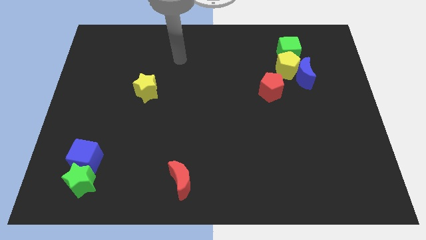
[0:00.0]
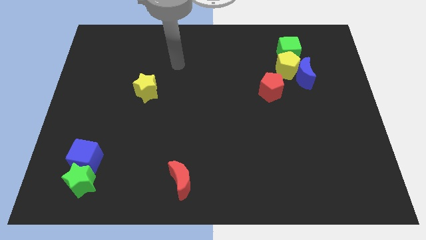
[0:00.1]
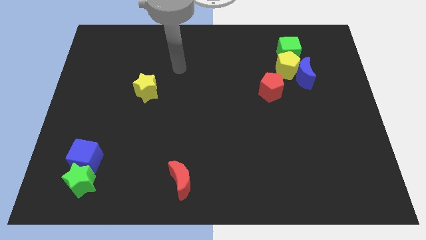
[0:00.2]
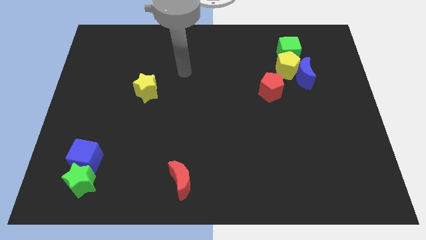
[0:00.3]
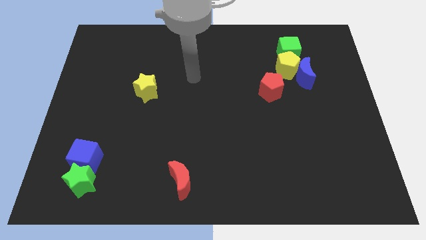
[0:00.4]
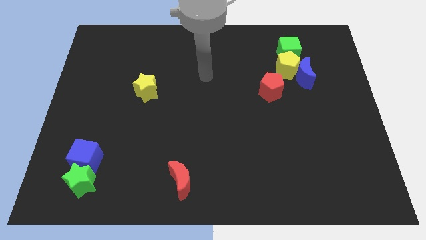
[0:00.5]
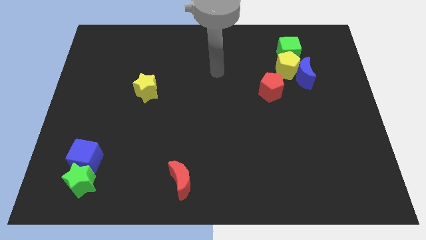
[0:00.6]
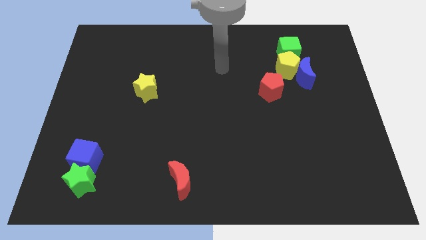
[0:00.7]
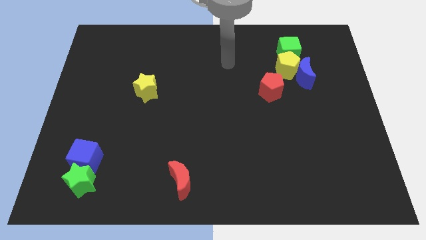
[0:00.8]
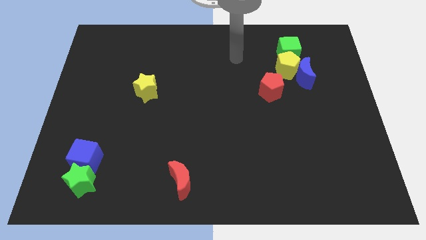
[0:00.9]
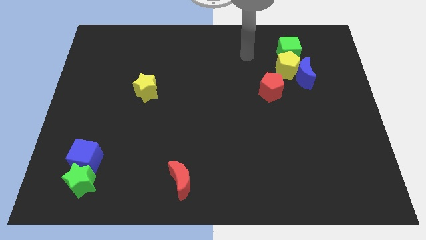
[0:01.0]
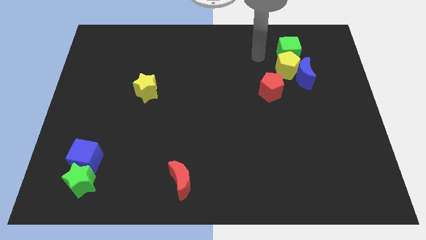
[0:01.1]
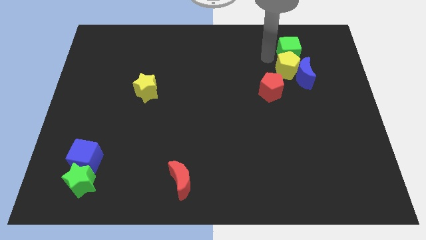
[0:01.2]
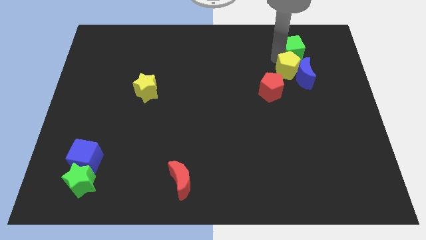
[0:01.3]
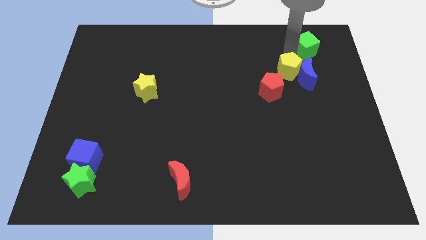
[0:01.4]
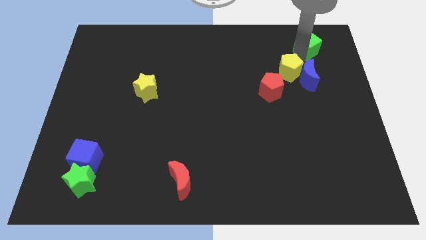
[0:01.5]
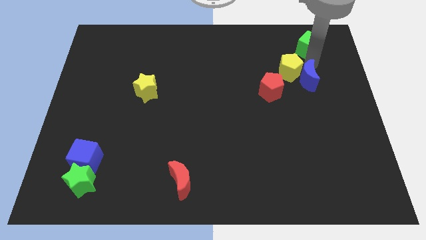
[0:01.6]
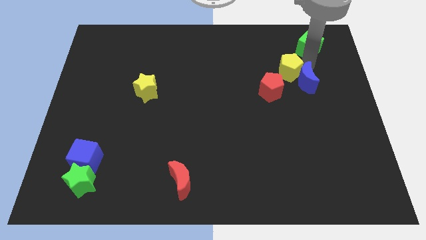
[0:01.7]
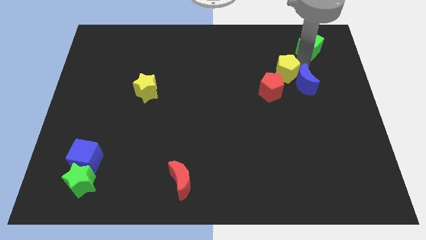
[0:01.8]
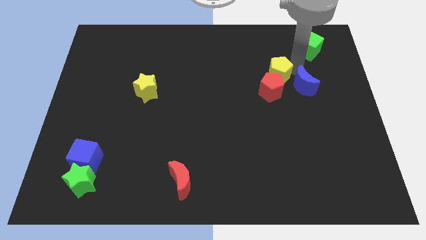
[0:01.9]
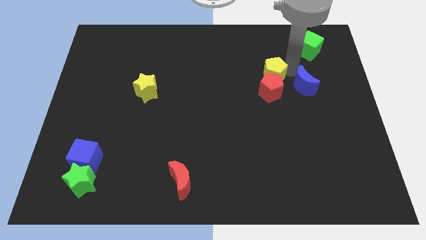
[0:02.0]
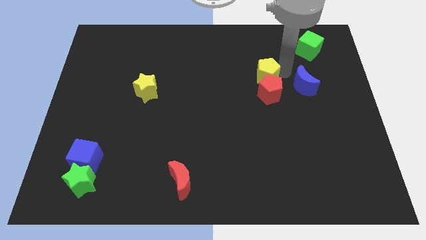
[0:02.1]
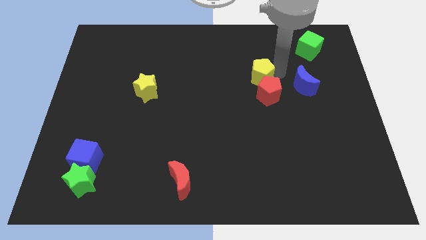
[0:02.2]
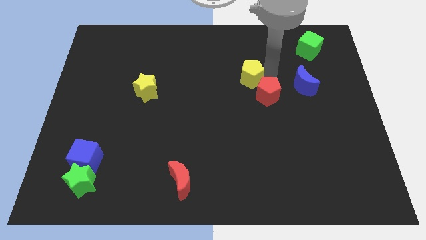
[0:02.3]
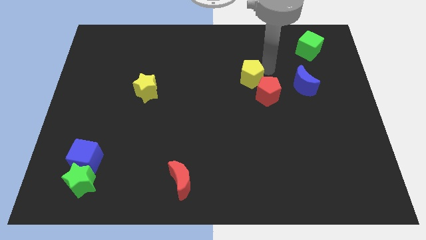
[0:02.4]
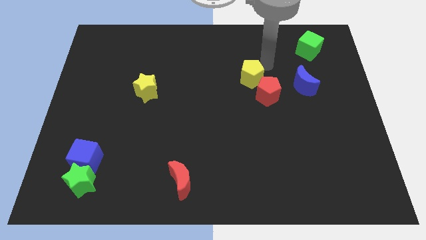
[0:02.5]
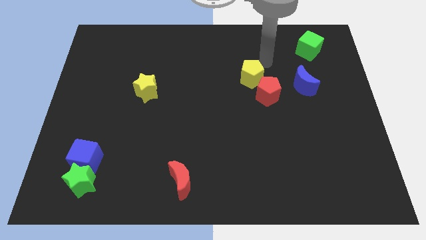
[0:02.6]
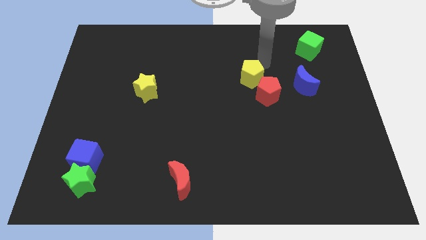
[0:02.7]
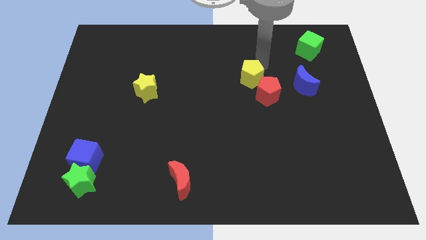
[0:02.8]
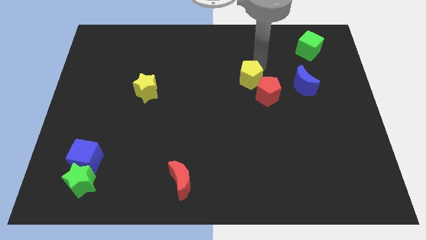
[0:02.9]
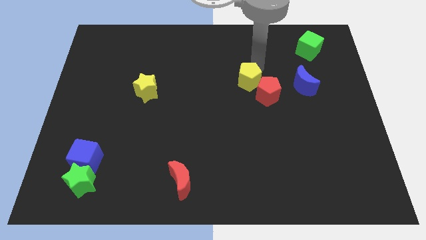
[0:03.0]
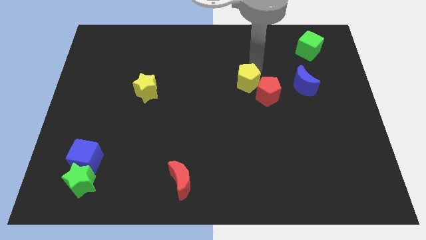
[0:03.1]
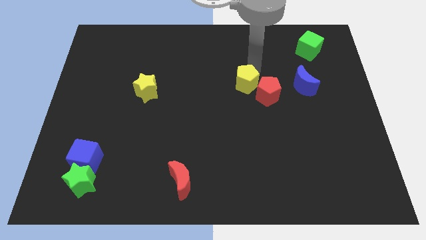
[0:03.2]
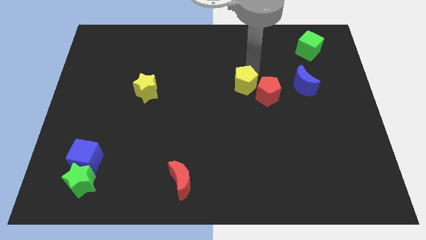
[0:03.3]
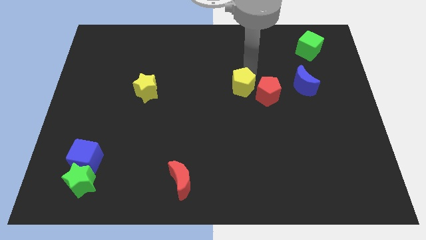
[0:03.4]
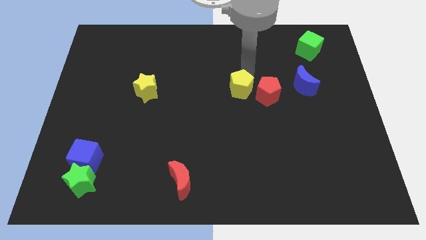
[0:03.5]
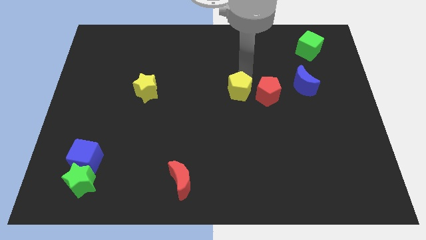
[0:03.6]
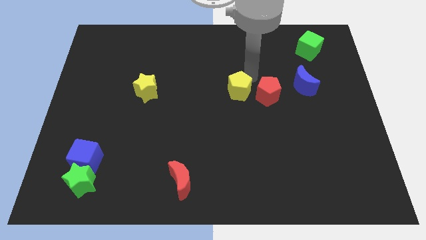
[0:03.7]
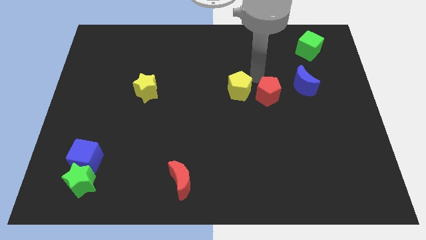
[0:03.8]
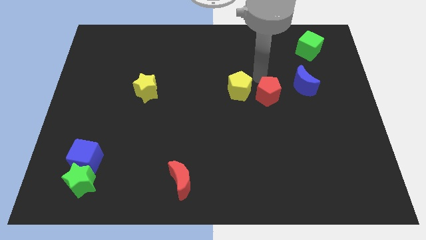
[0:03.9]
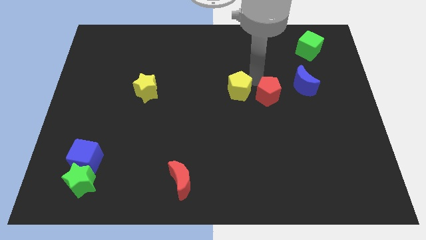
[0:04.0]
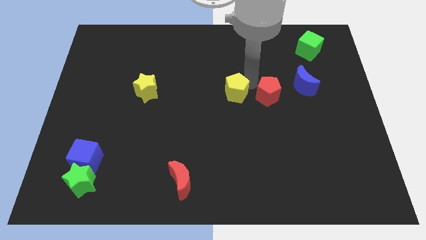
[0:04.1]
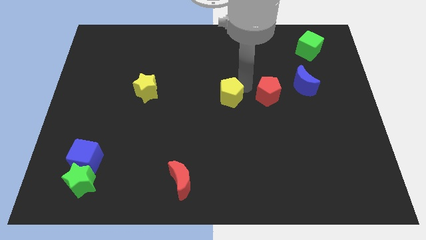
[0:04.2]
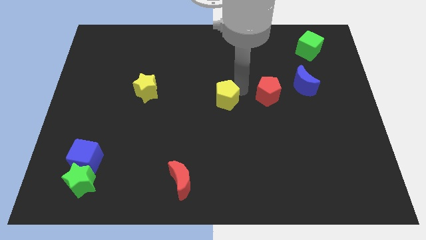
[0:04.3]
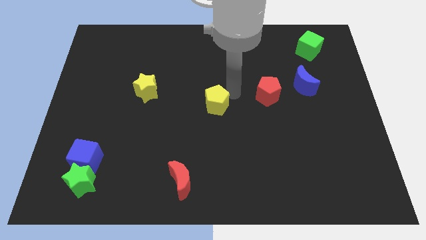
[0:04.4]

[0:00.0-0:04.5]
push the yellow pentagon downwards and to the left

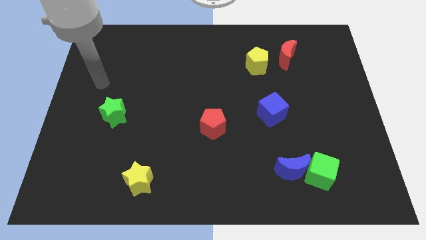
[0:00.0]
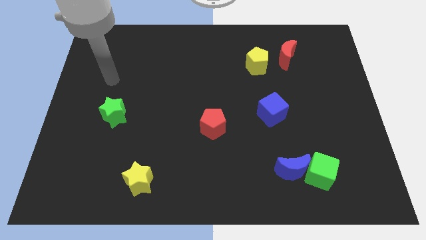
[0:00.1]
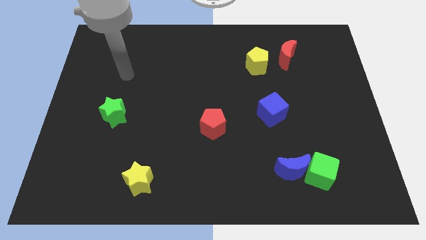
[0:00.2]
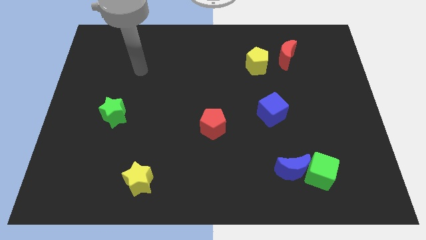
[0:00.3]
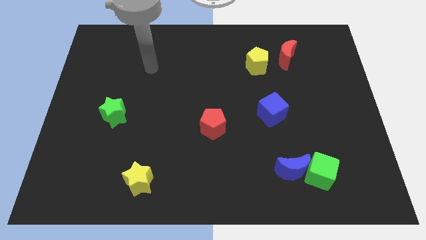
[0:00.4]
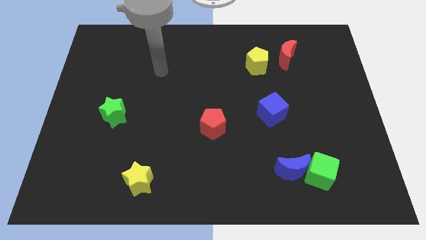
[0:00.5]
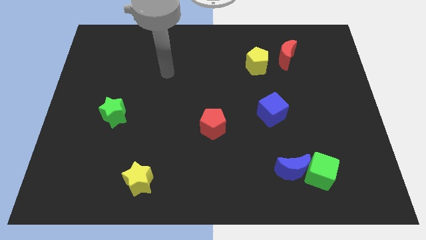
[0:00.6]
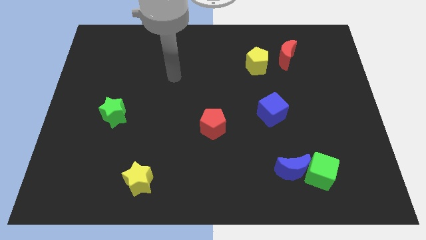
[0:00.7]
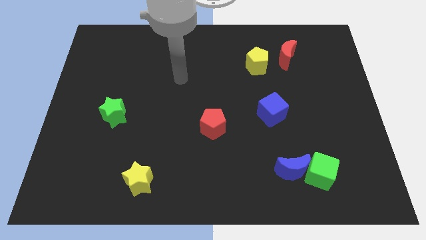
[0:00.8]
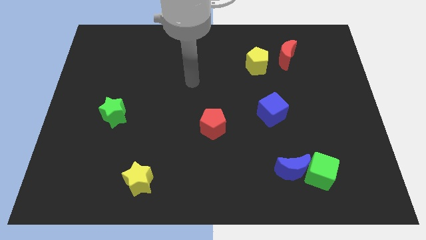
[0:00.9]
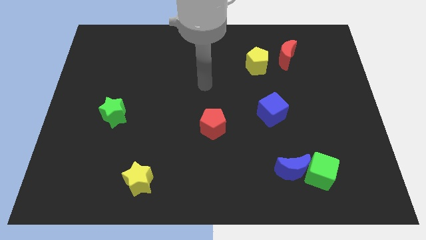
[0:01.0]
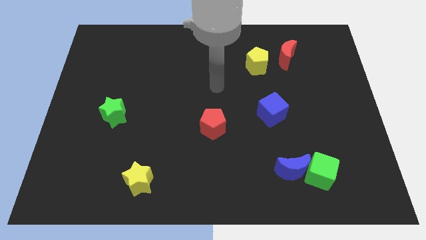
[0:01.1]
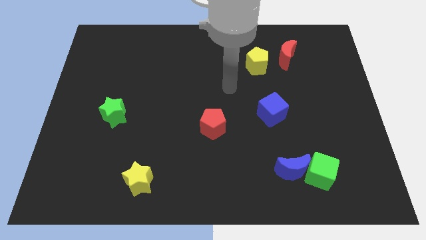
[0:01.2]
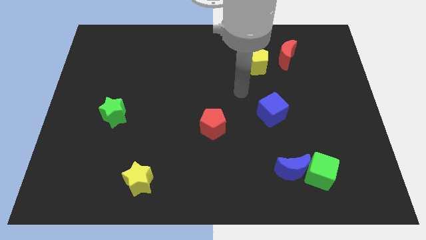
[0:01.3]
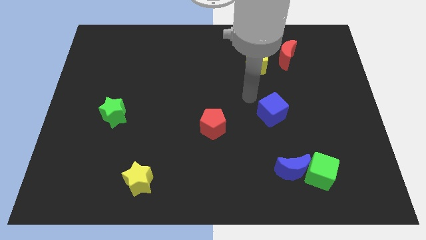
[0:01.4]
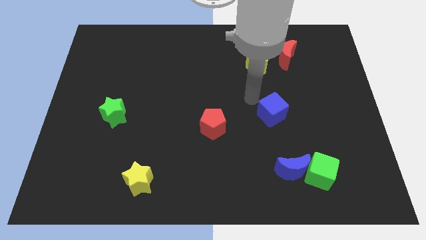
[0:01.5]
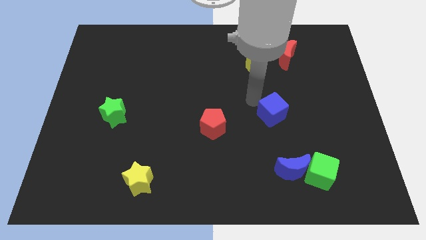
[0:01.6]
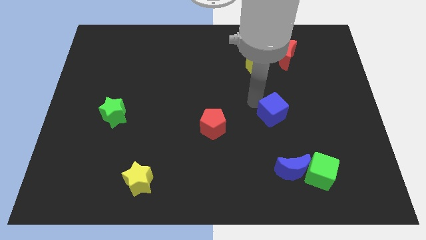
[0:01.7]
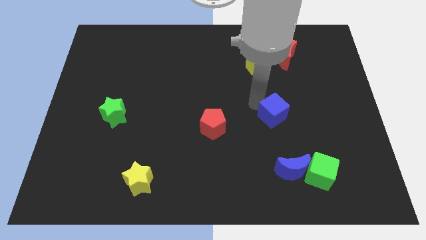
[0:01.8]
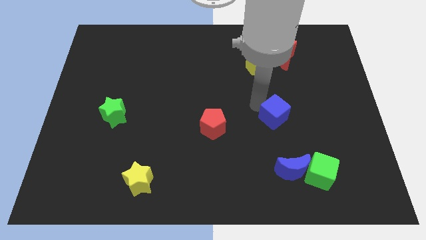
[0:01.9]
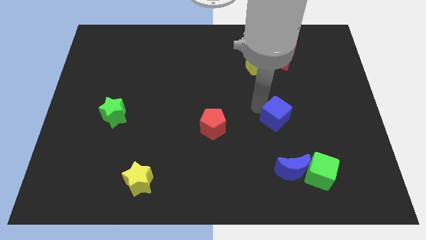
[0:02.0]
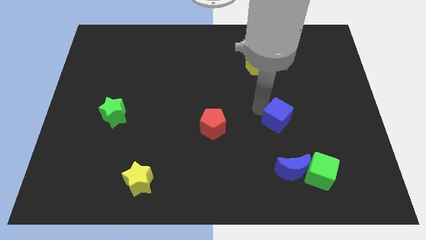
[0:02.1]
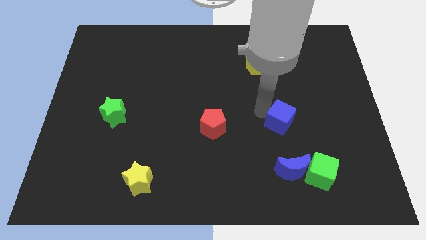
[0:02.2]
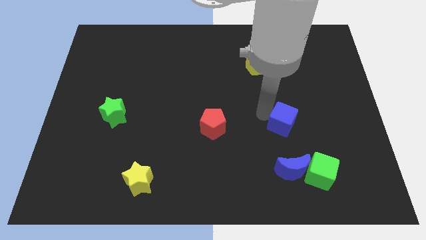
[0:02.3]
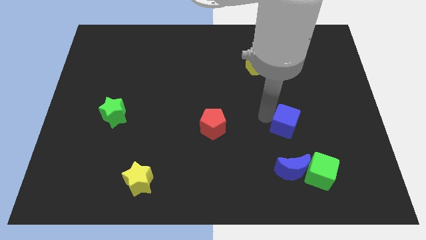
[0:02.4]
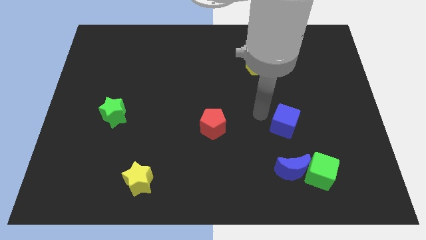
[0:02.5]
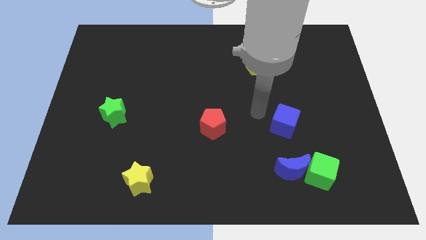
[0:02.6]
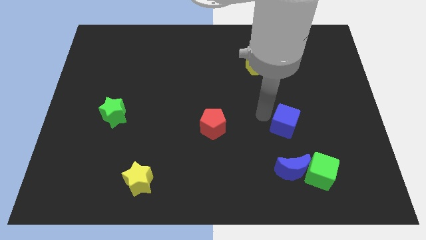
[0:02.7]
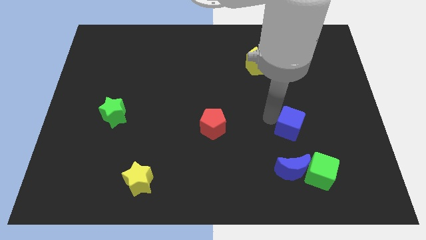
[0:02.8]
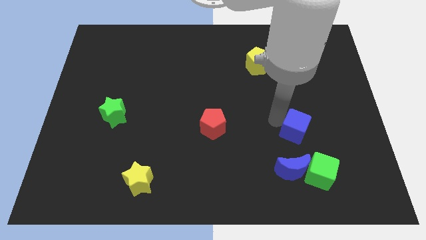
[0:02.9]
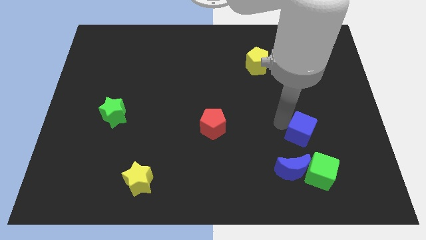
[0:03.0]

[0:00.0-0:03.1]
push the blue cube somewhat downwards and then right

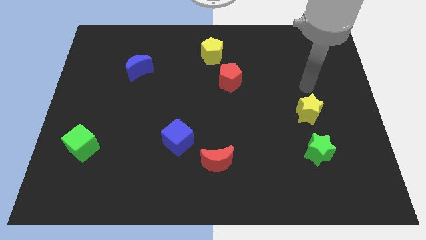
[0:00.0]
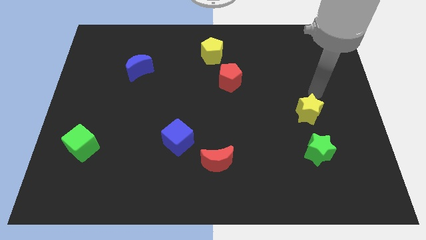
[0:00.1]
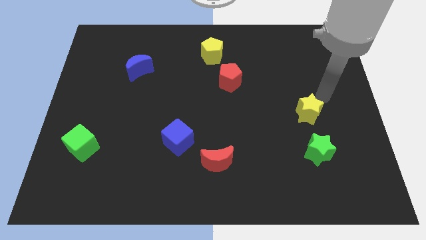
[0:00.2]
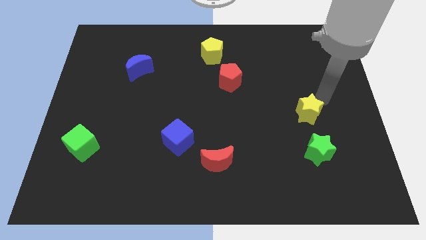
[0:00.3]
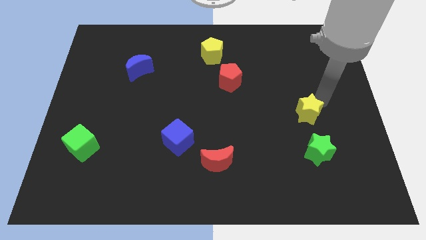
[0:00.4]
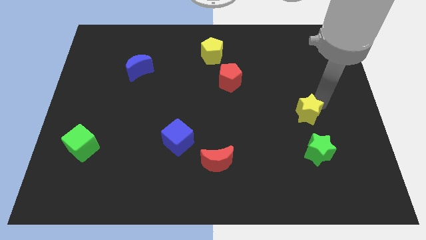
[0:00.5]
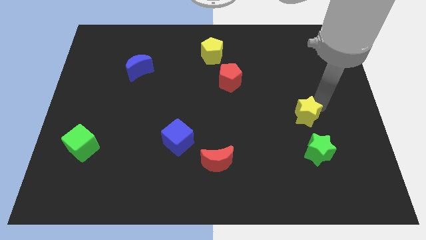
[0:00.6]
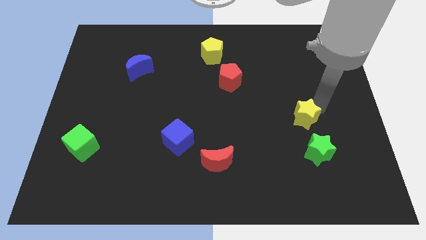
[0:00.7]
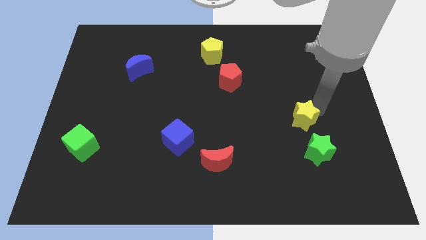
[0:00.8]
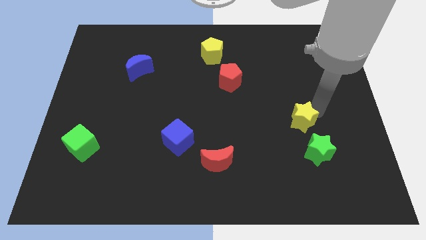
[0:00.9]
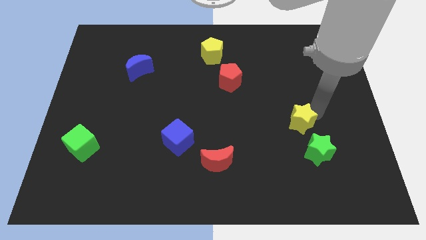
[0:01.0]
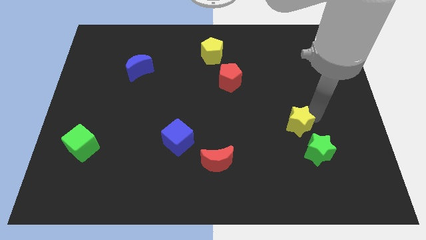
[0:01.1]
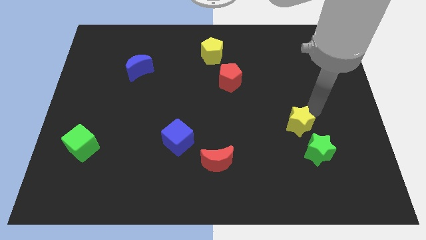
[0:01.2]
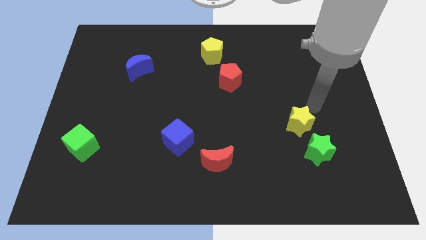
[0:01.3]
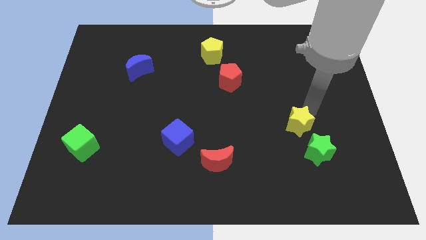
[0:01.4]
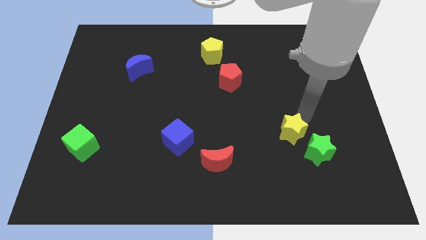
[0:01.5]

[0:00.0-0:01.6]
slightly slide the yellow star down and then to the left
